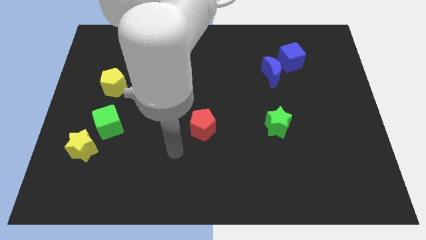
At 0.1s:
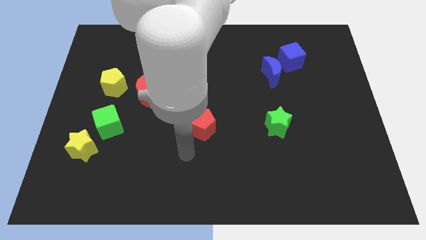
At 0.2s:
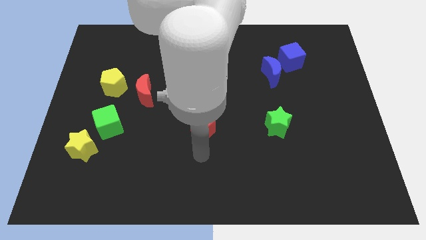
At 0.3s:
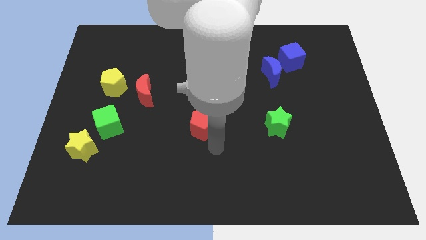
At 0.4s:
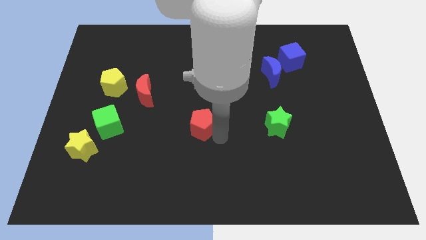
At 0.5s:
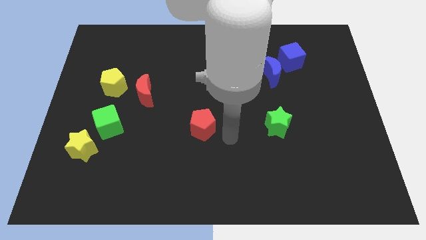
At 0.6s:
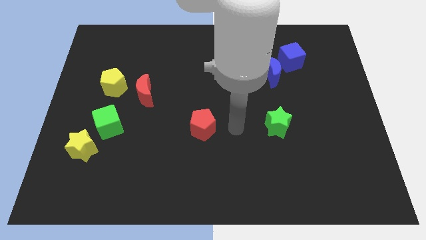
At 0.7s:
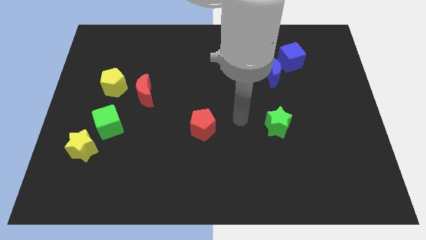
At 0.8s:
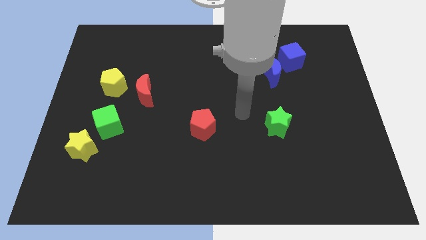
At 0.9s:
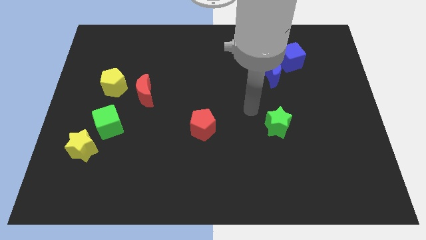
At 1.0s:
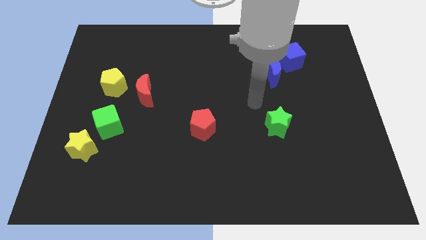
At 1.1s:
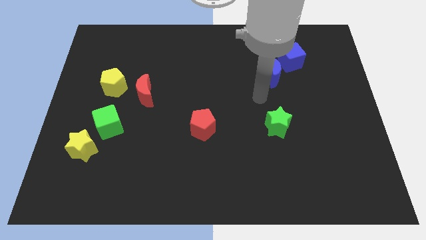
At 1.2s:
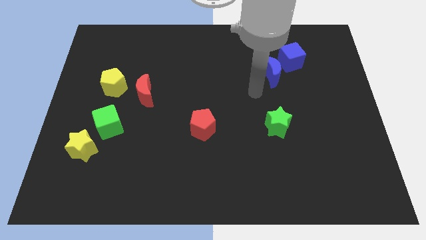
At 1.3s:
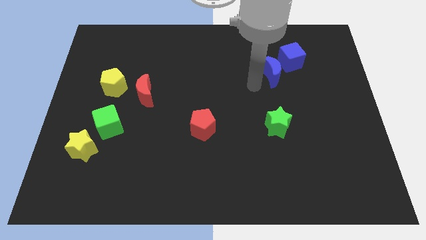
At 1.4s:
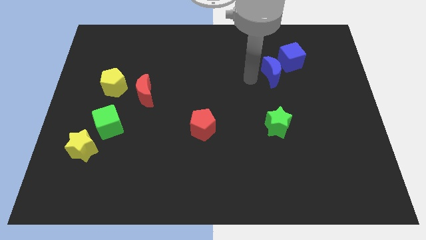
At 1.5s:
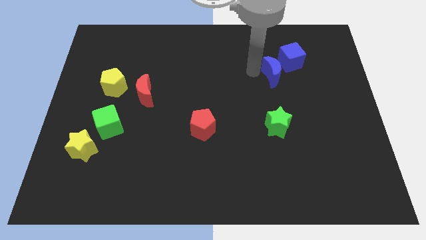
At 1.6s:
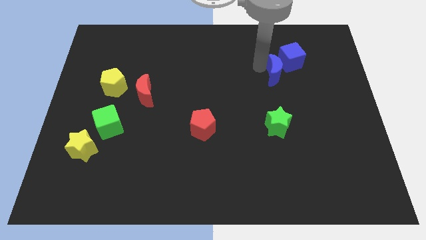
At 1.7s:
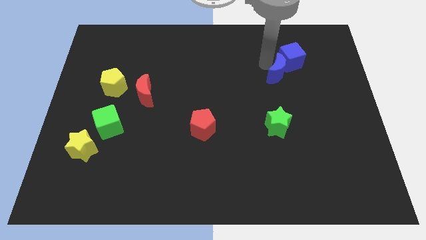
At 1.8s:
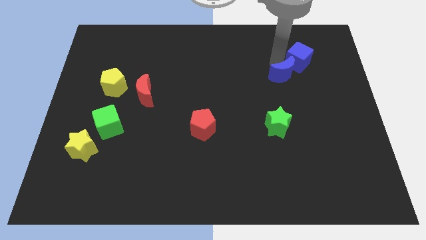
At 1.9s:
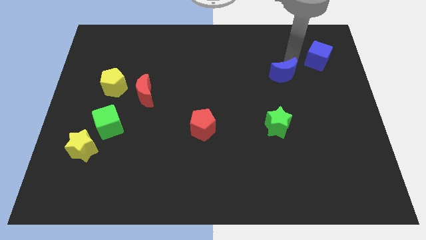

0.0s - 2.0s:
separate the blue moon from the blue cube

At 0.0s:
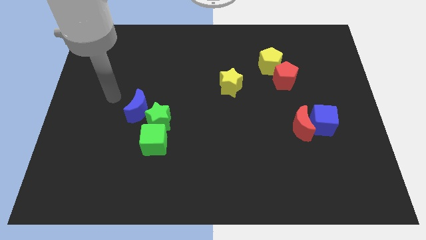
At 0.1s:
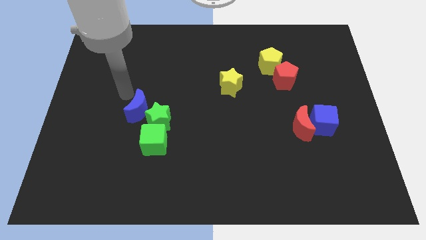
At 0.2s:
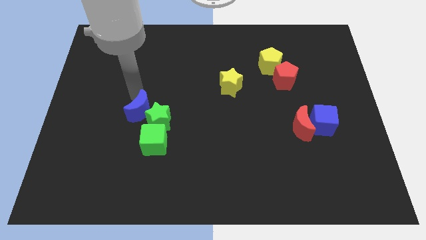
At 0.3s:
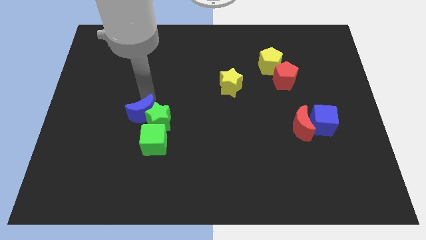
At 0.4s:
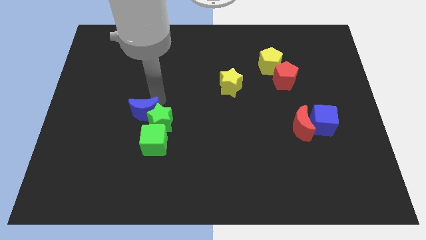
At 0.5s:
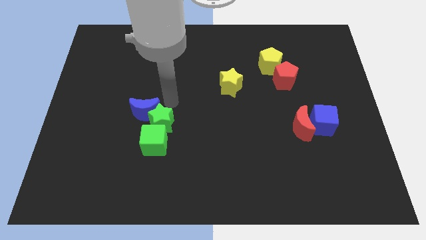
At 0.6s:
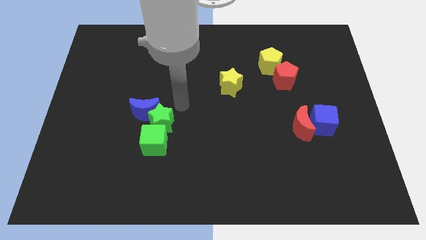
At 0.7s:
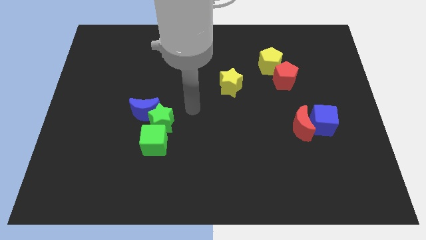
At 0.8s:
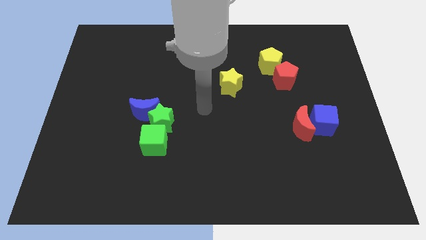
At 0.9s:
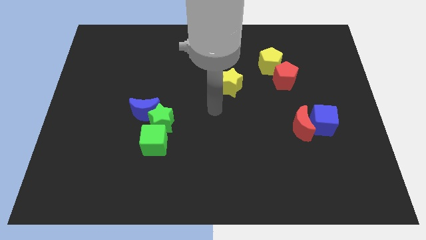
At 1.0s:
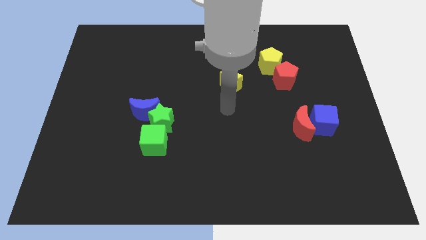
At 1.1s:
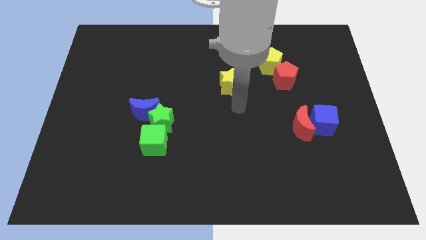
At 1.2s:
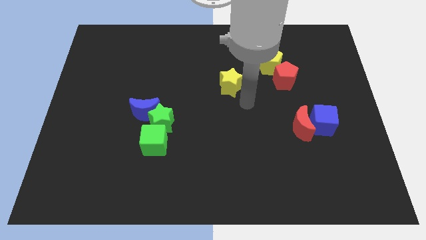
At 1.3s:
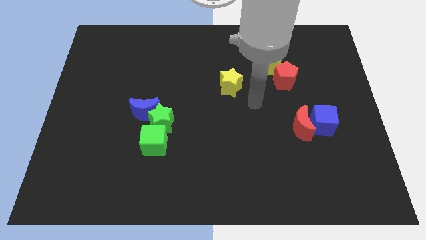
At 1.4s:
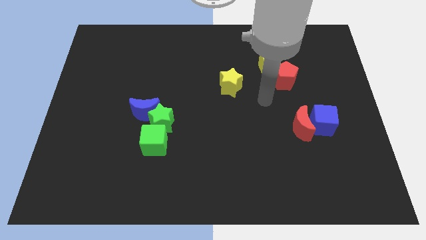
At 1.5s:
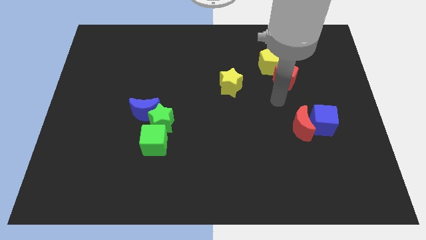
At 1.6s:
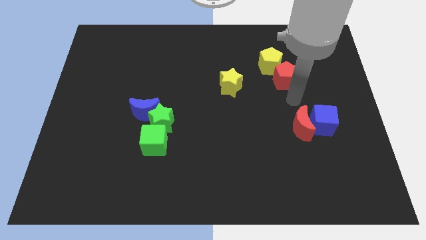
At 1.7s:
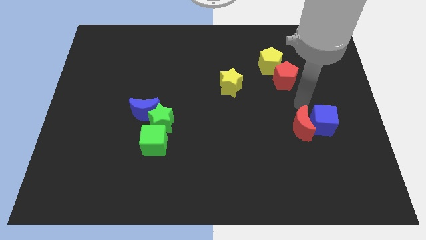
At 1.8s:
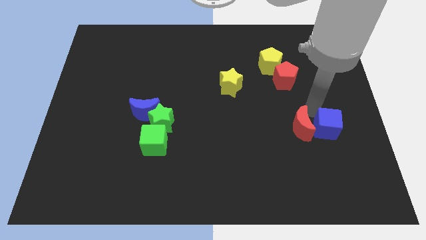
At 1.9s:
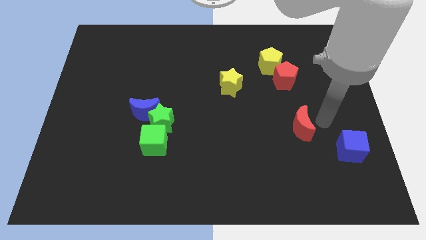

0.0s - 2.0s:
separate the red moon from the blue cube

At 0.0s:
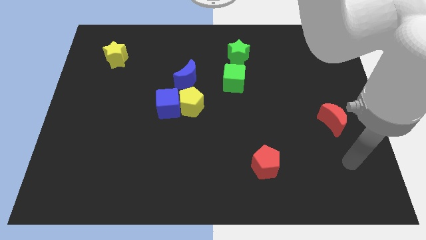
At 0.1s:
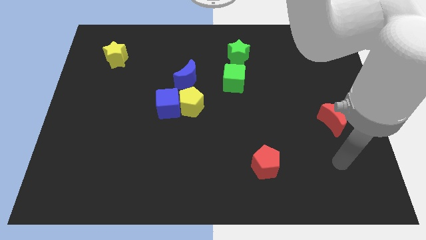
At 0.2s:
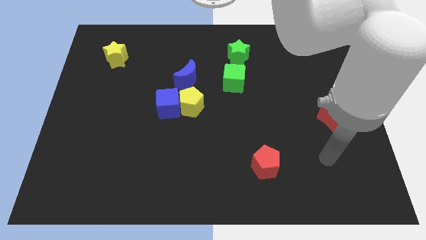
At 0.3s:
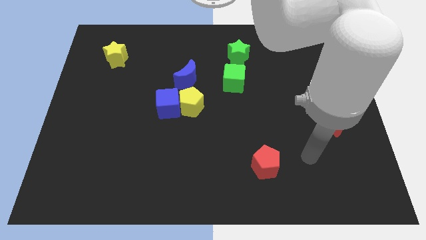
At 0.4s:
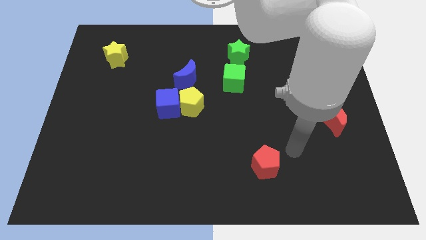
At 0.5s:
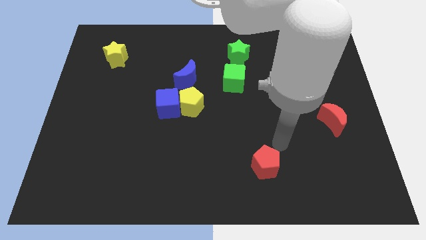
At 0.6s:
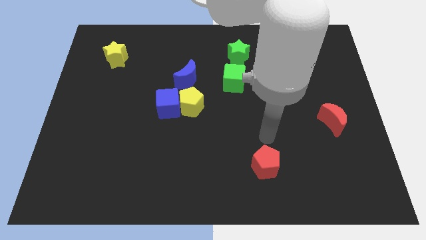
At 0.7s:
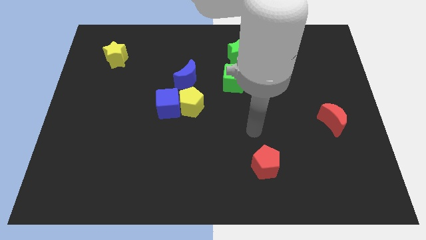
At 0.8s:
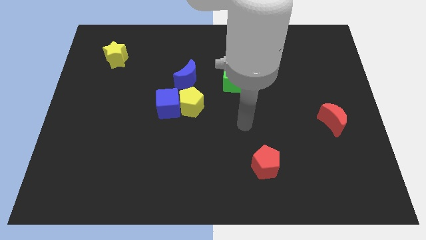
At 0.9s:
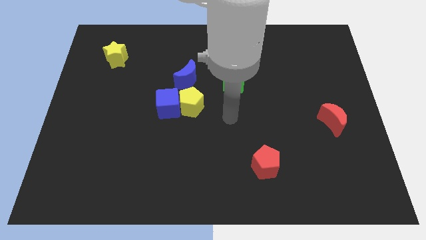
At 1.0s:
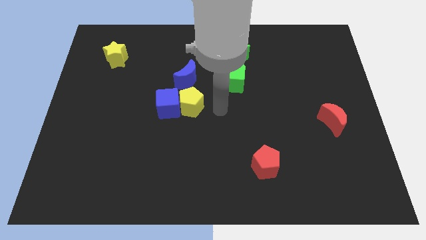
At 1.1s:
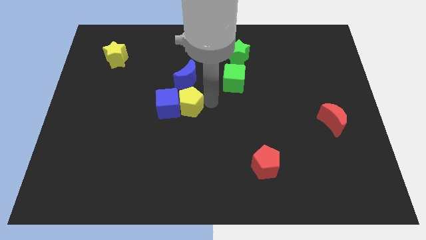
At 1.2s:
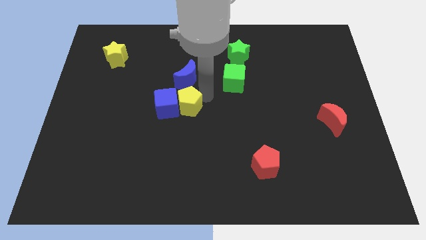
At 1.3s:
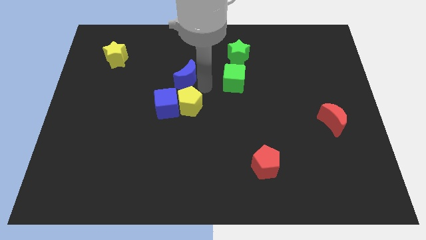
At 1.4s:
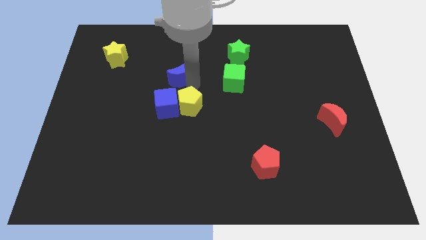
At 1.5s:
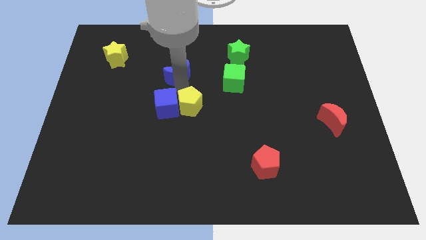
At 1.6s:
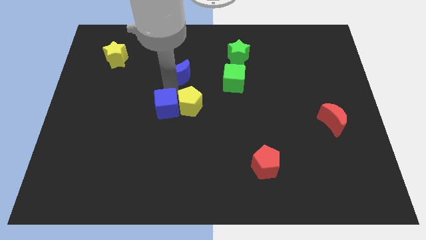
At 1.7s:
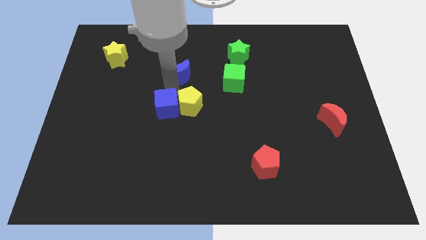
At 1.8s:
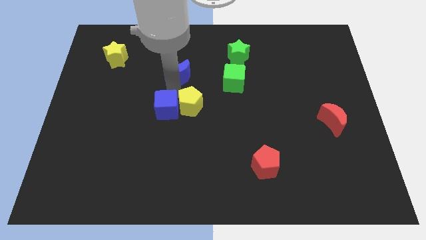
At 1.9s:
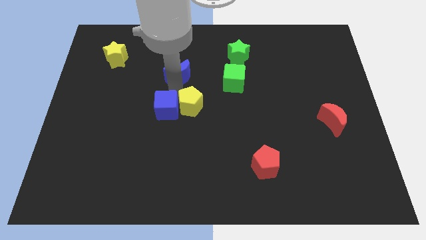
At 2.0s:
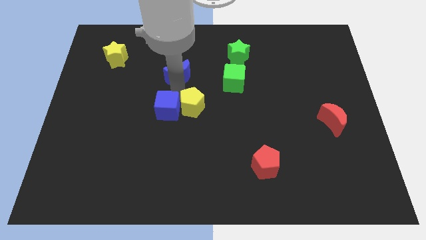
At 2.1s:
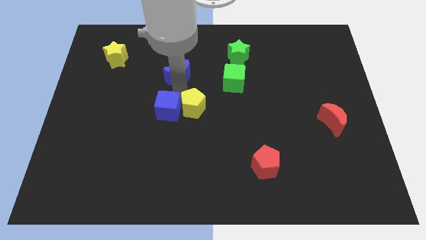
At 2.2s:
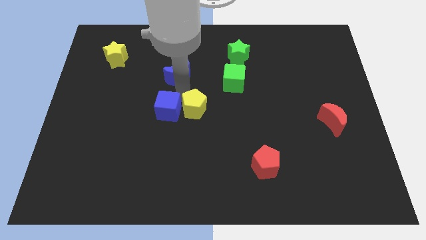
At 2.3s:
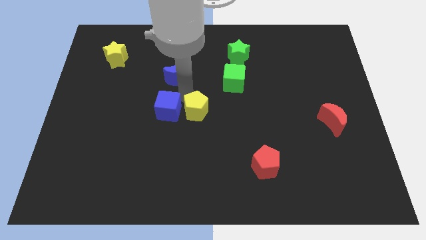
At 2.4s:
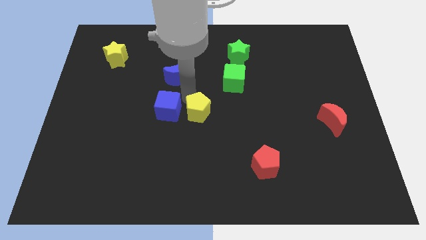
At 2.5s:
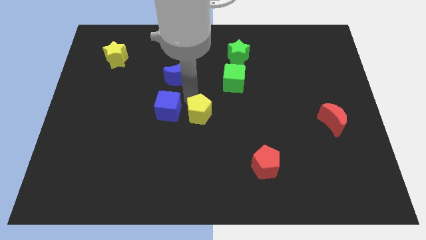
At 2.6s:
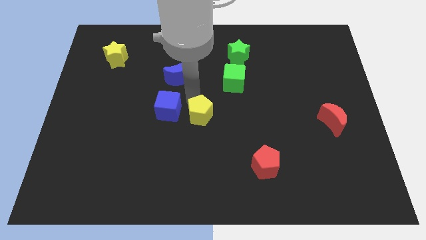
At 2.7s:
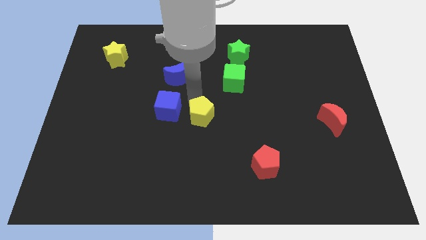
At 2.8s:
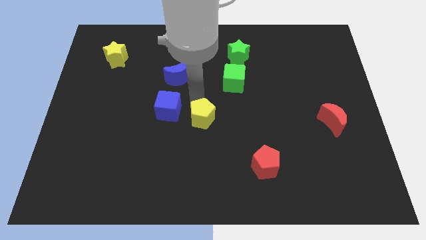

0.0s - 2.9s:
pull the yellow pentagon apart from the blue cube and blue moon

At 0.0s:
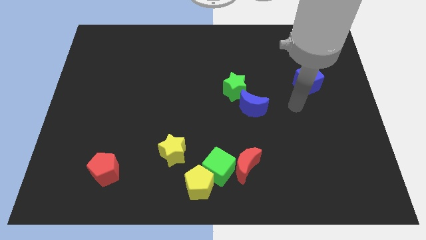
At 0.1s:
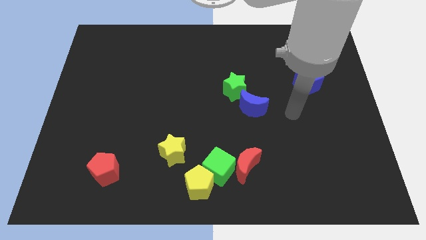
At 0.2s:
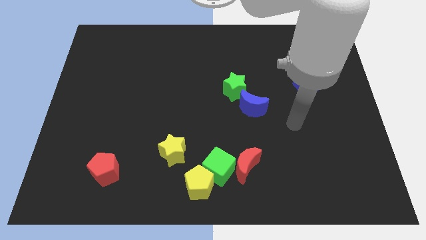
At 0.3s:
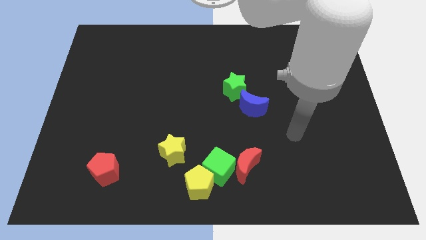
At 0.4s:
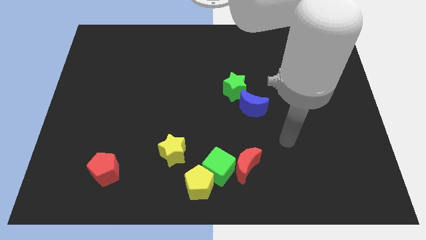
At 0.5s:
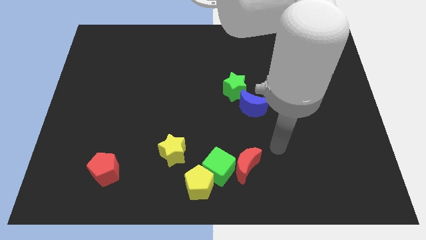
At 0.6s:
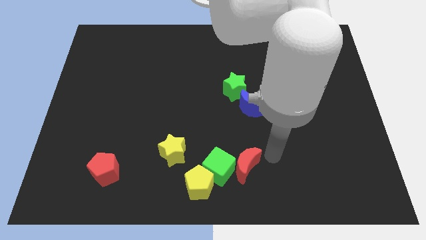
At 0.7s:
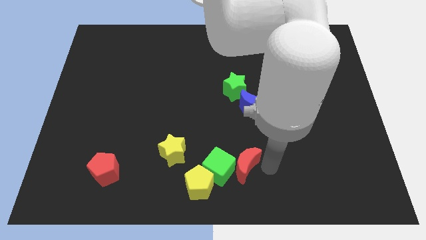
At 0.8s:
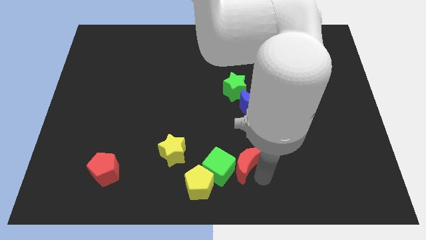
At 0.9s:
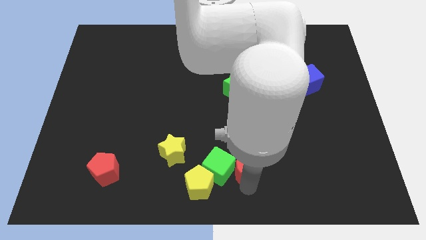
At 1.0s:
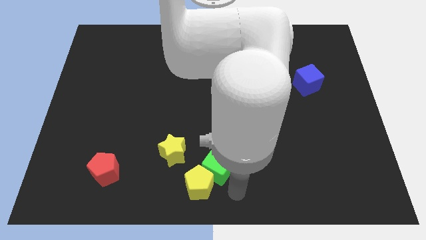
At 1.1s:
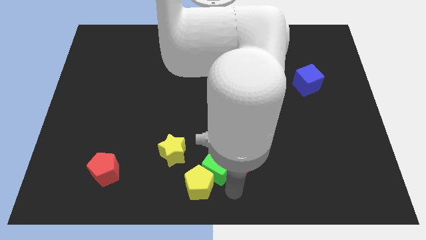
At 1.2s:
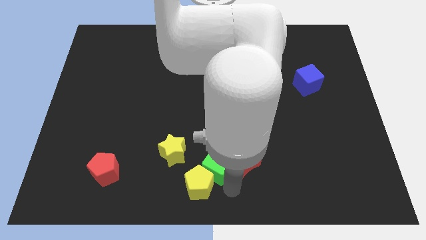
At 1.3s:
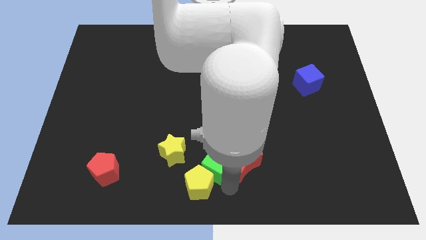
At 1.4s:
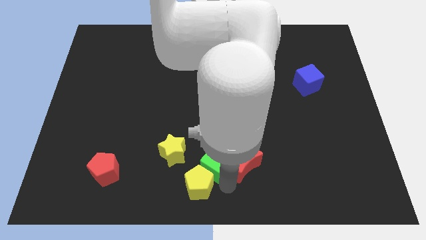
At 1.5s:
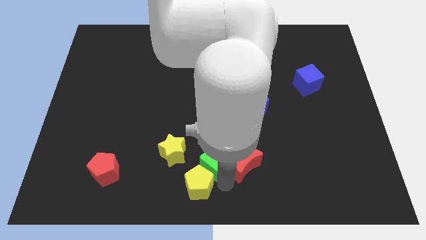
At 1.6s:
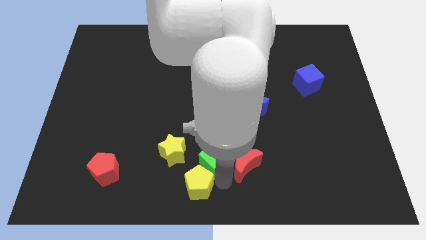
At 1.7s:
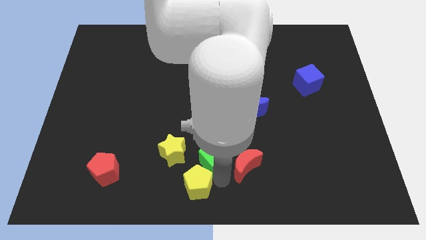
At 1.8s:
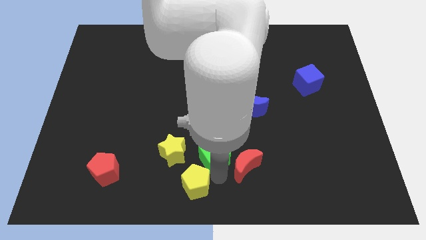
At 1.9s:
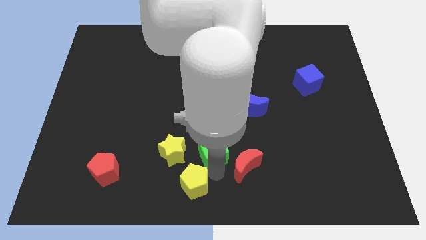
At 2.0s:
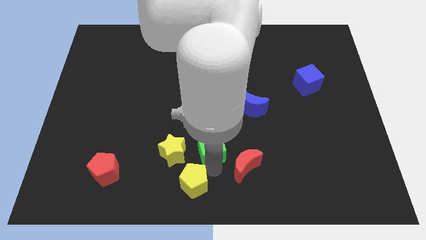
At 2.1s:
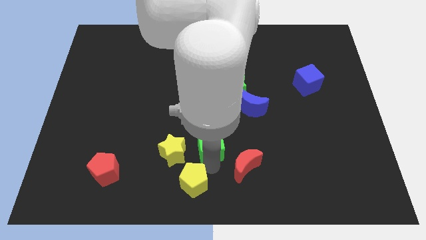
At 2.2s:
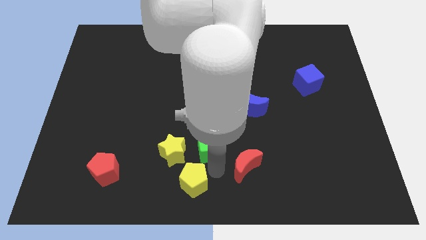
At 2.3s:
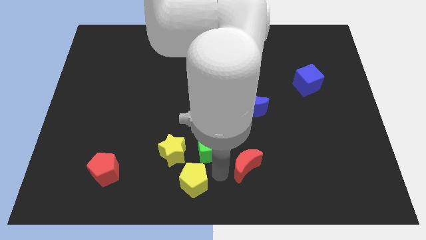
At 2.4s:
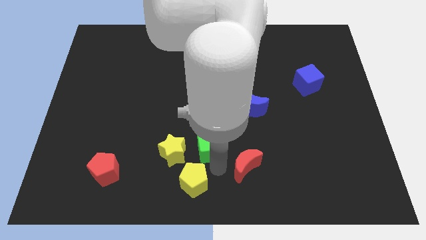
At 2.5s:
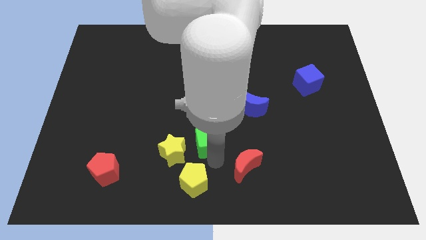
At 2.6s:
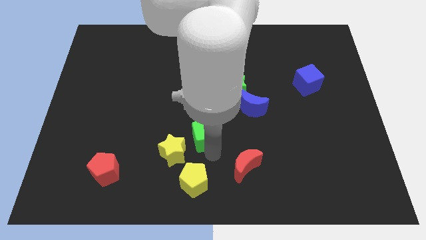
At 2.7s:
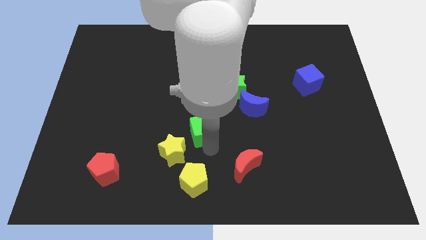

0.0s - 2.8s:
pull the green cube apart from the yellow pentagon and red moon
